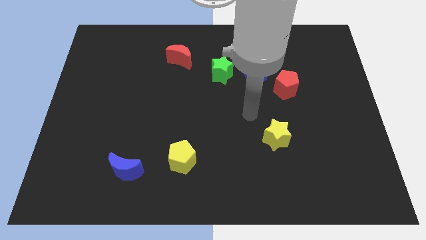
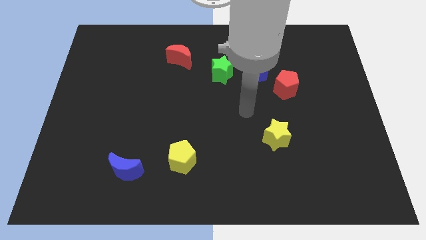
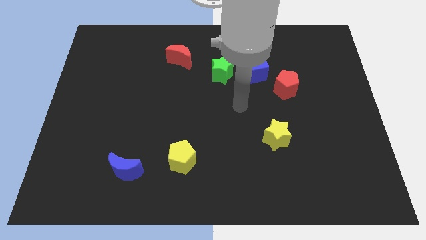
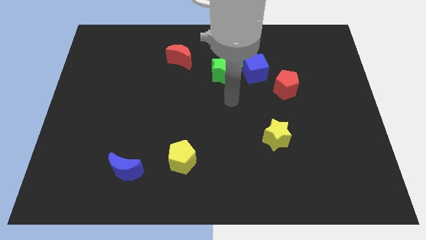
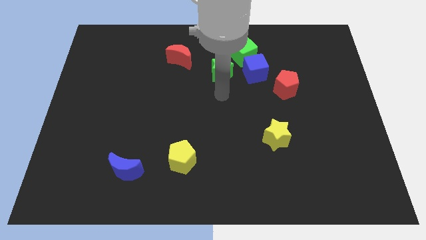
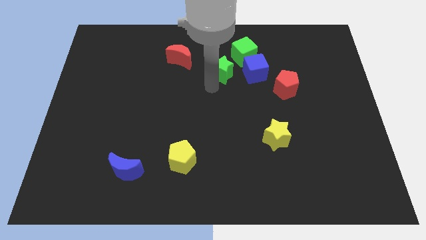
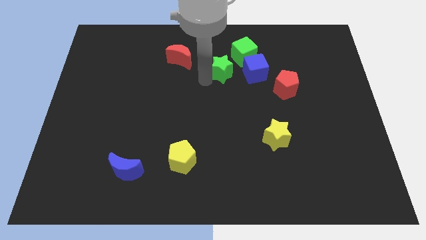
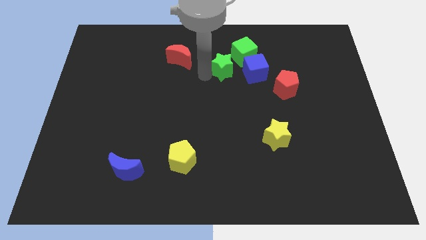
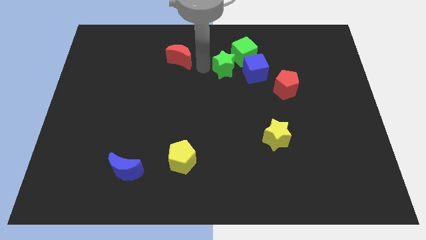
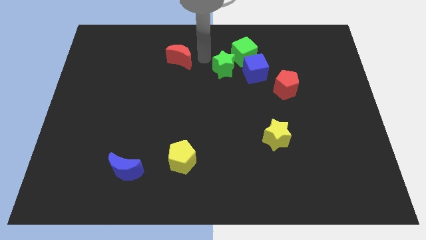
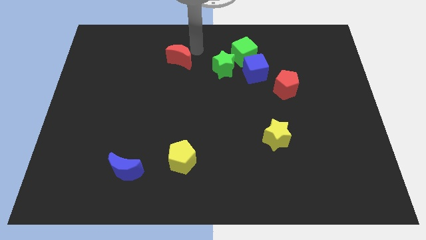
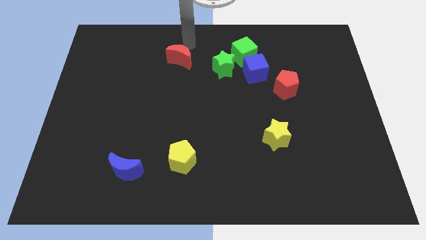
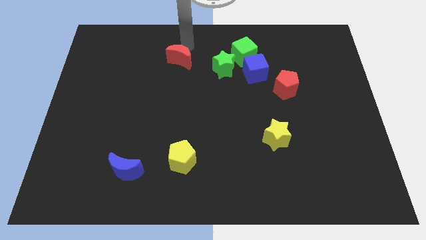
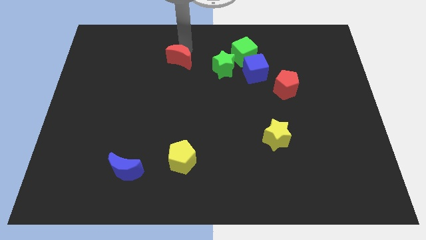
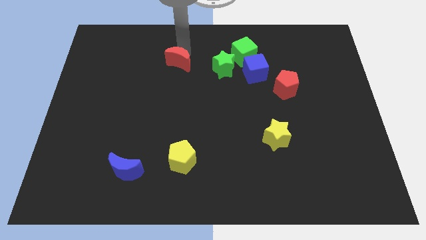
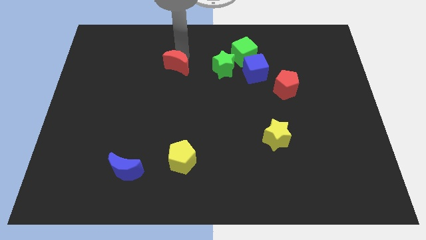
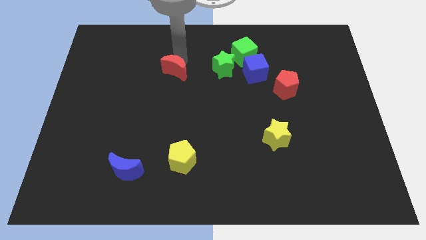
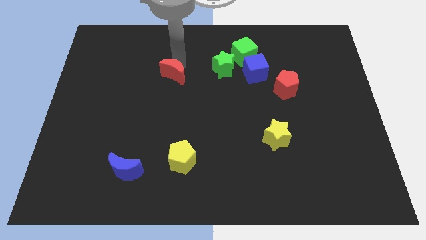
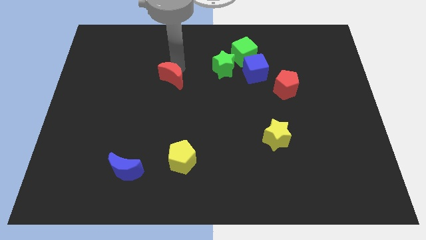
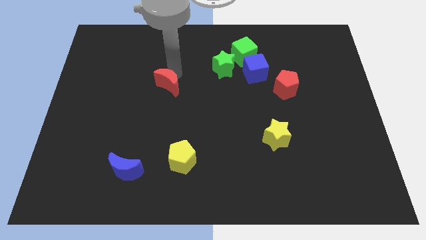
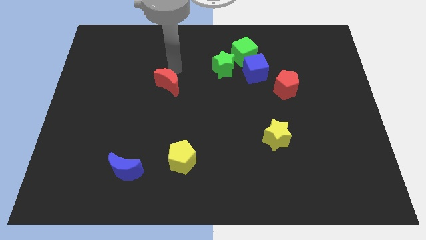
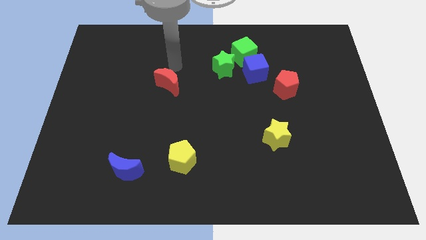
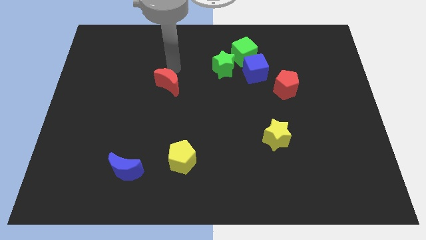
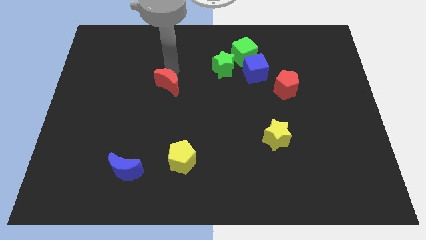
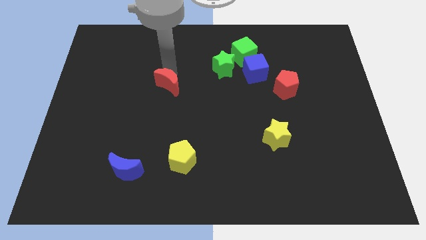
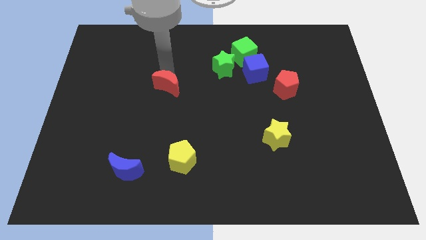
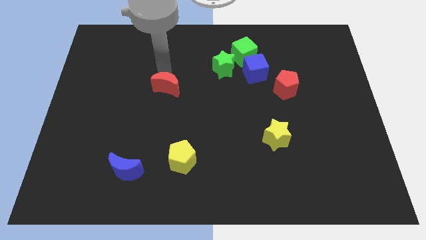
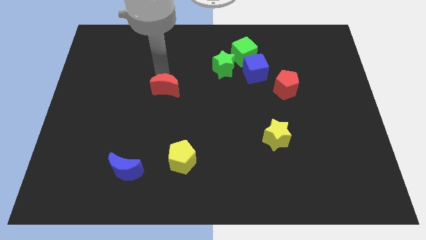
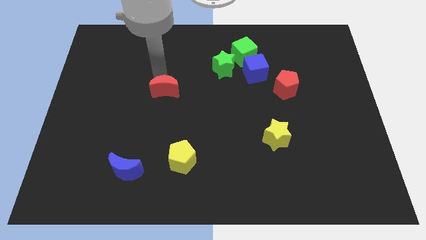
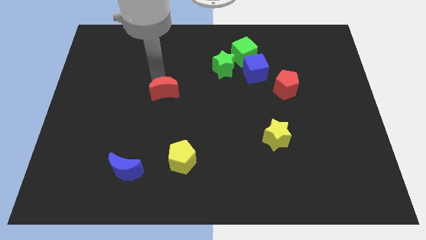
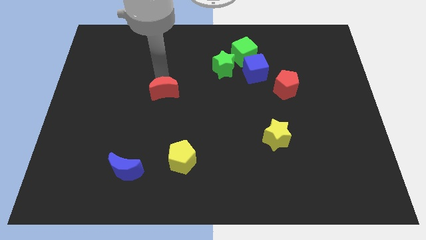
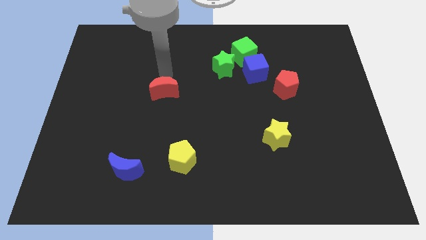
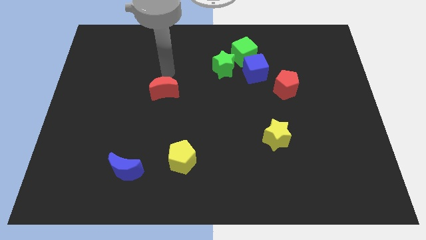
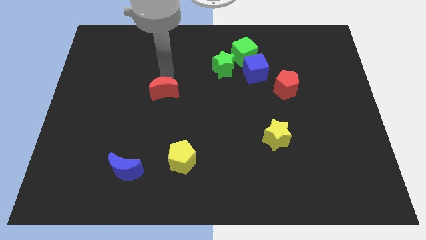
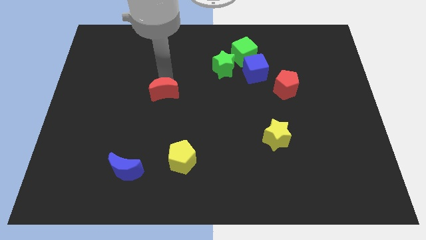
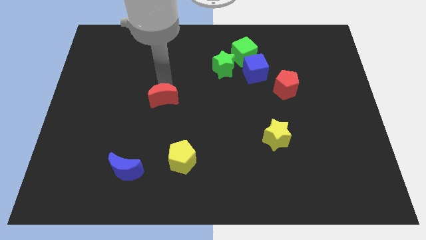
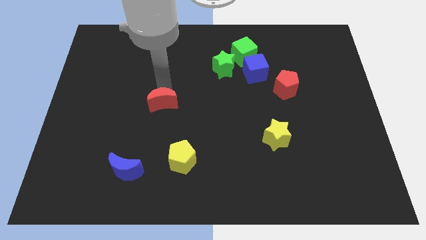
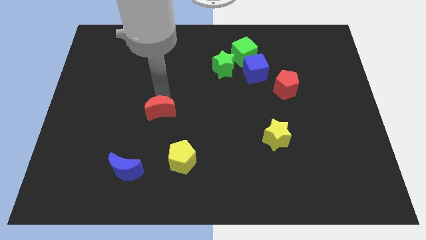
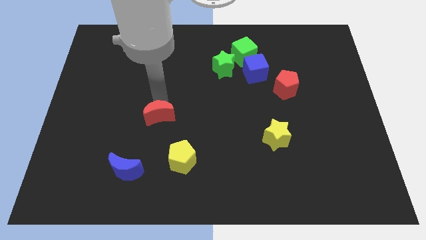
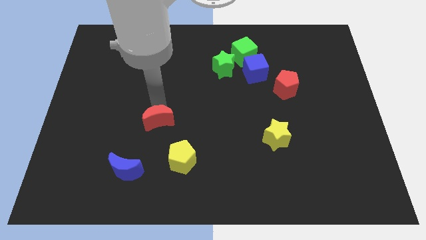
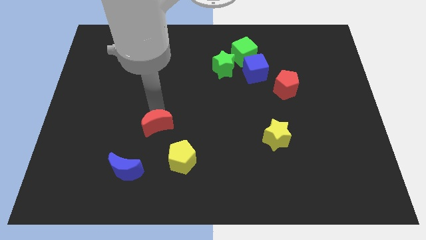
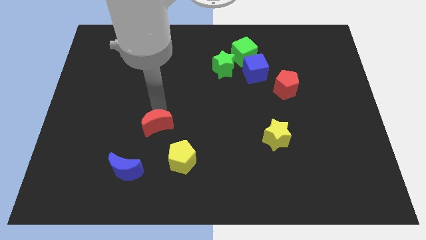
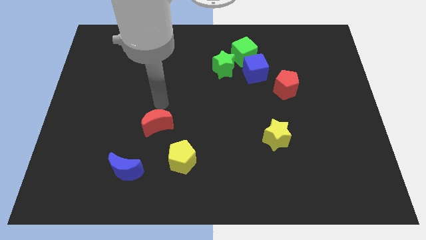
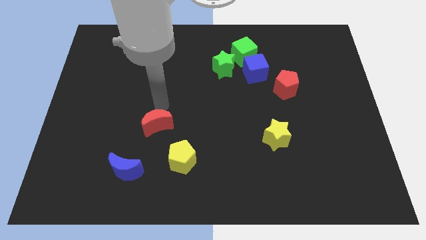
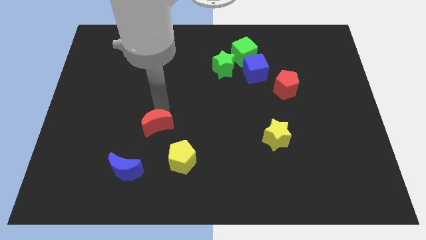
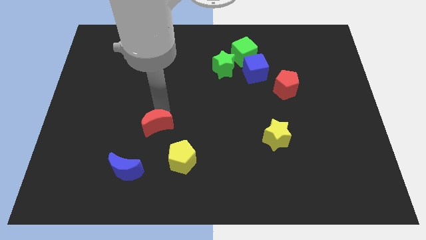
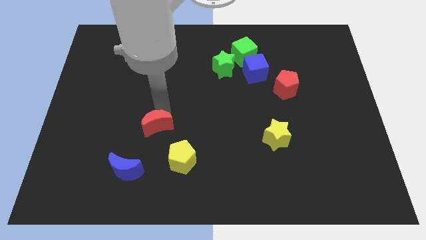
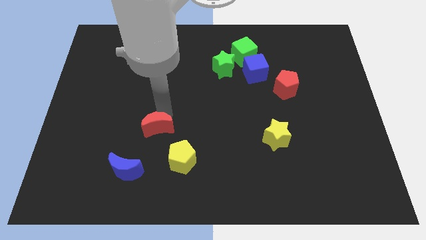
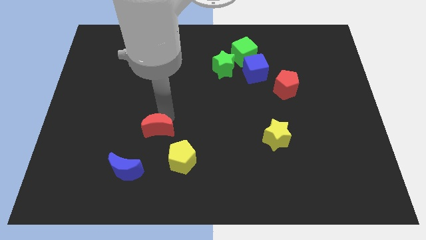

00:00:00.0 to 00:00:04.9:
move the red moon to the top right of the blue moon

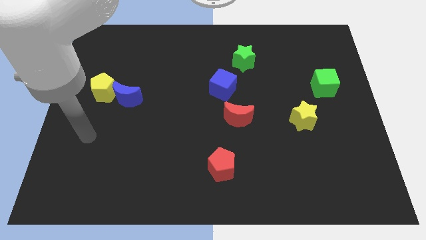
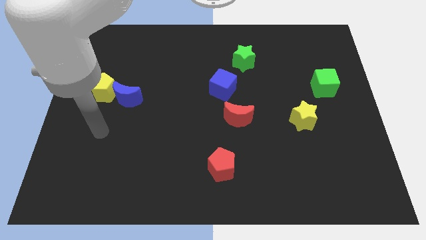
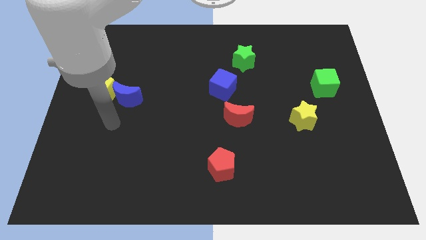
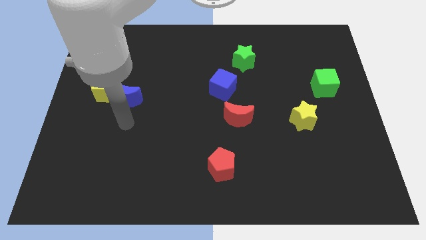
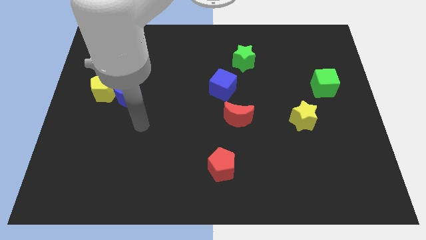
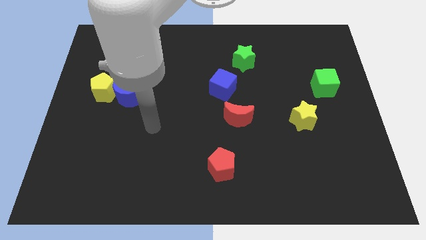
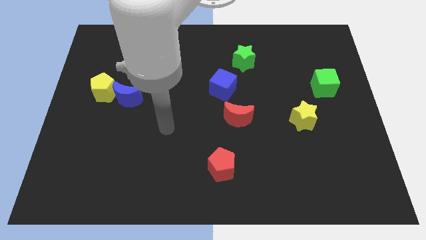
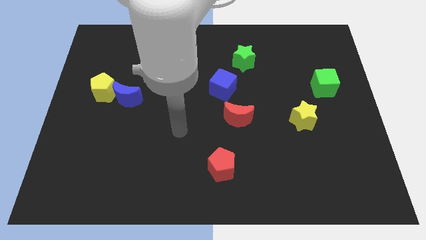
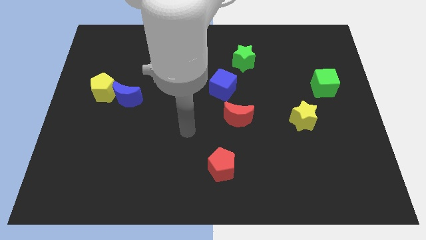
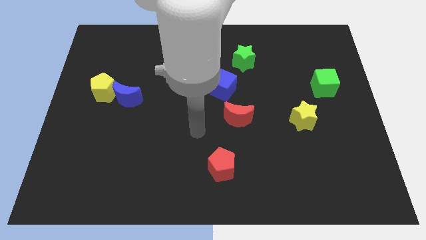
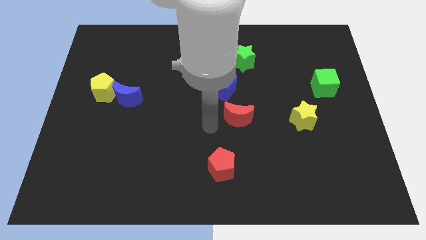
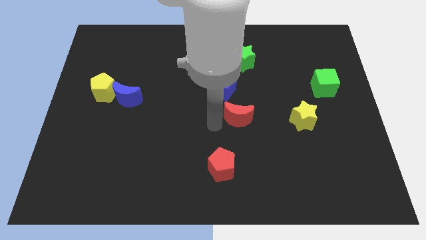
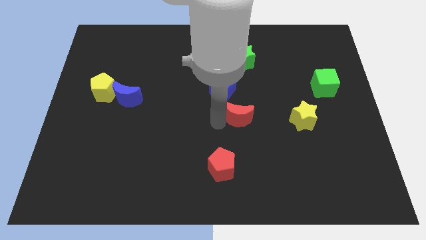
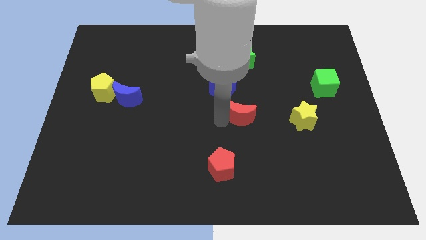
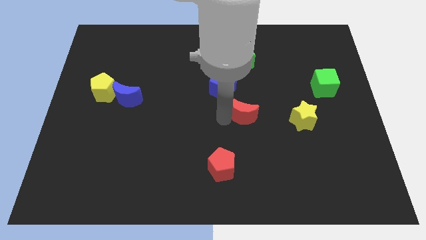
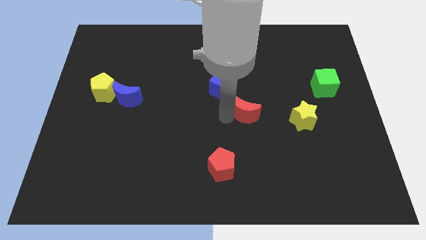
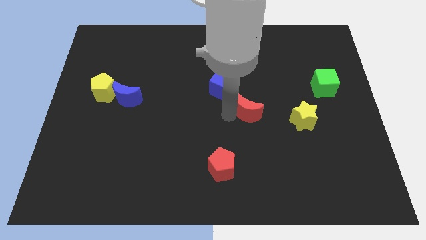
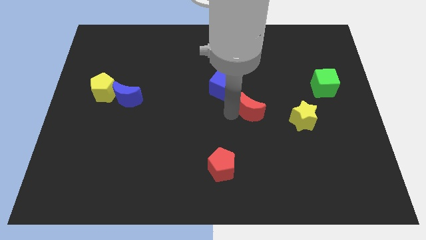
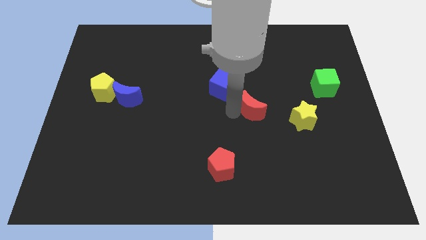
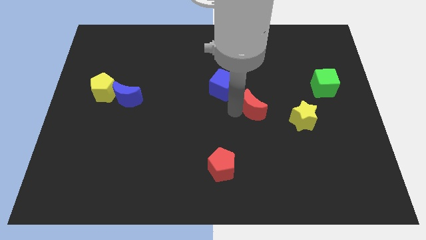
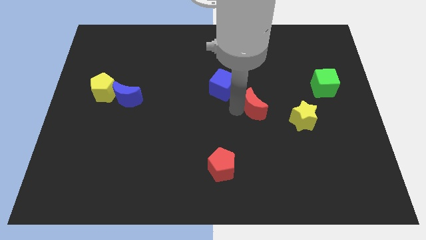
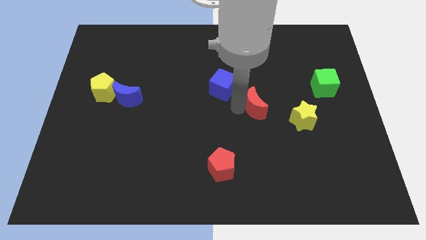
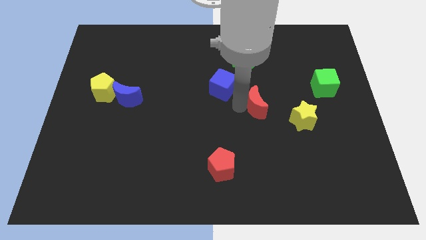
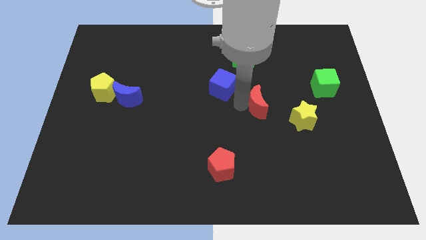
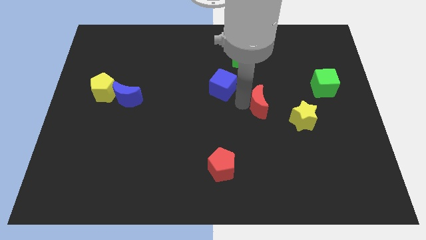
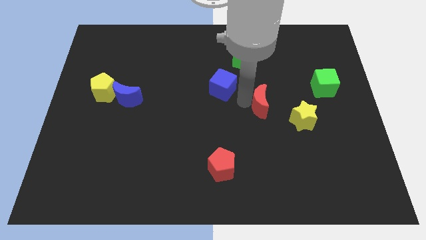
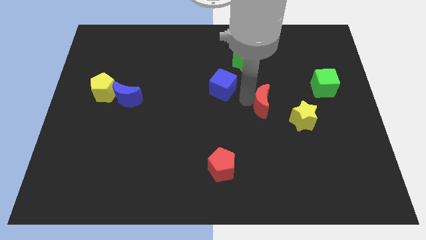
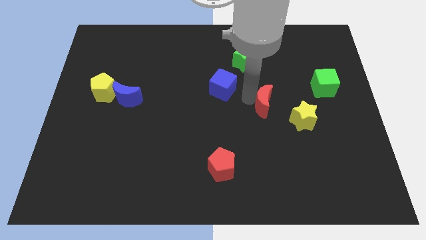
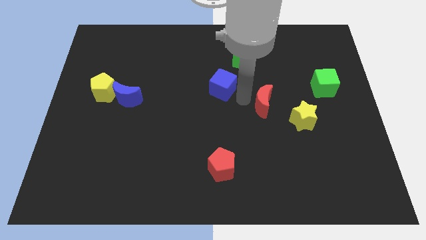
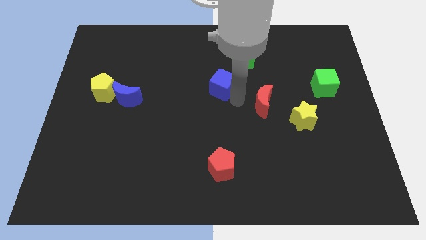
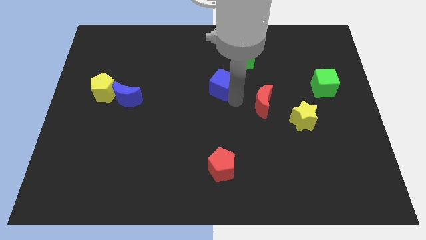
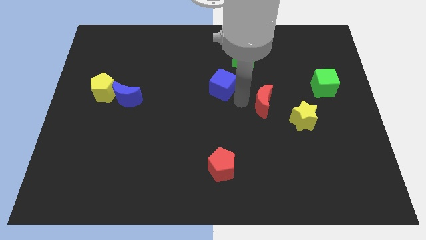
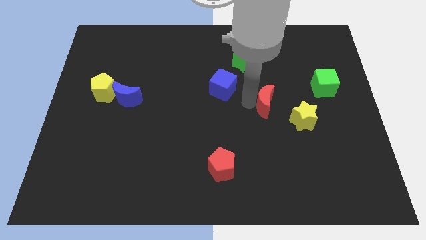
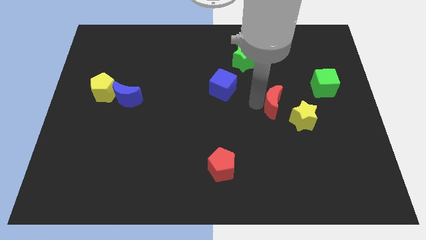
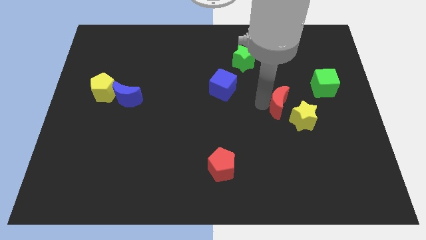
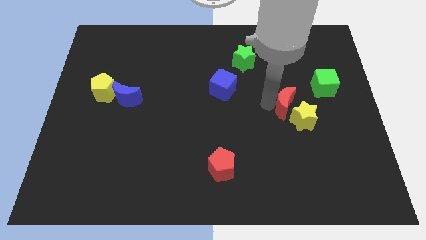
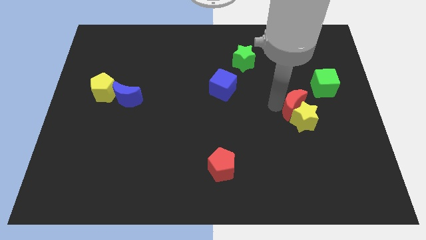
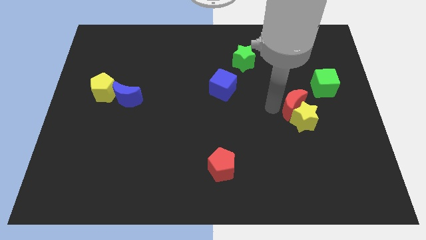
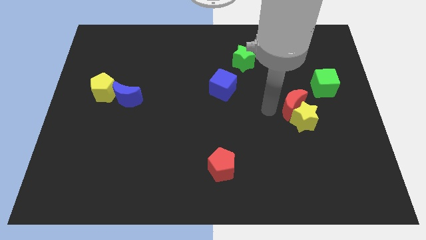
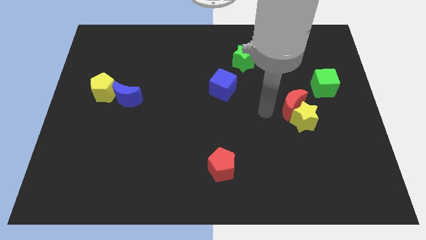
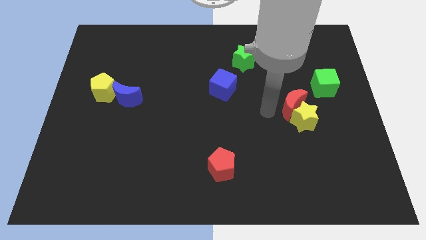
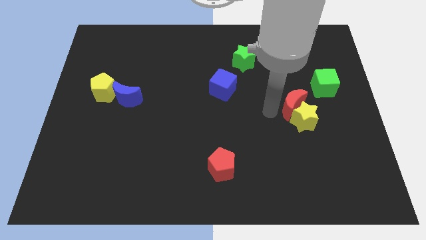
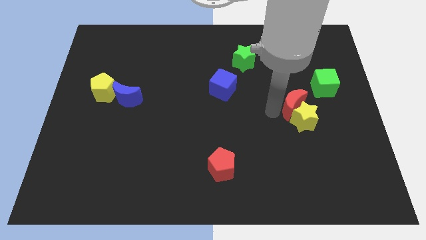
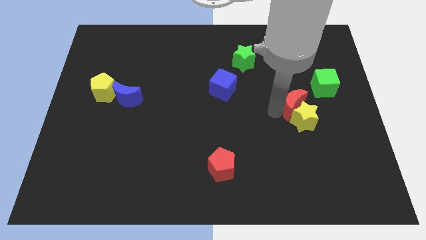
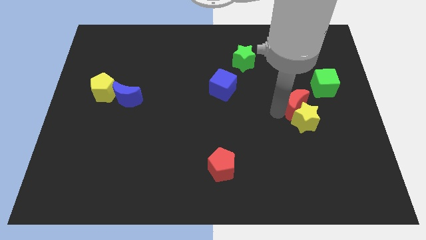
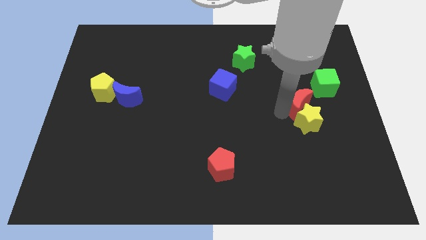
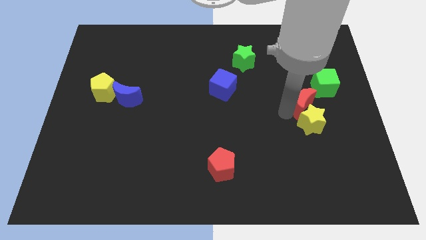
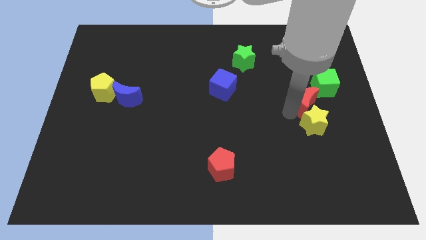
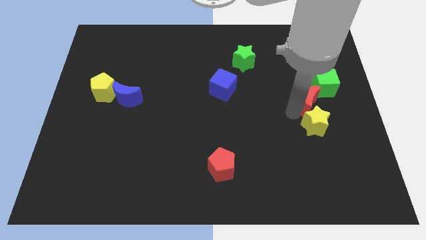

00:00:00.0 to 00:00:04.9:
push the red moon to the bottom of the green cube
